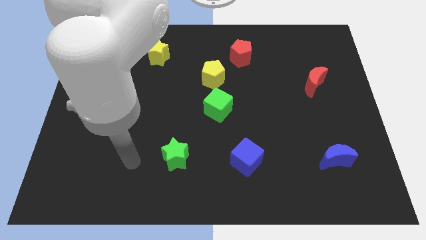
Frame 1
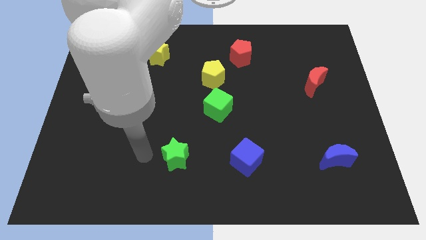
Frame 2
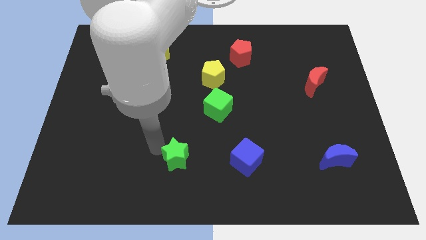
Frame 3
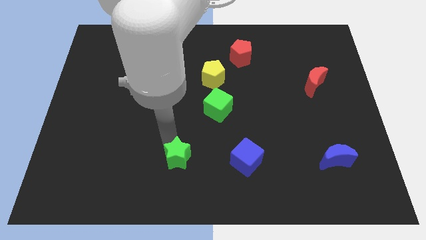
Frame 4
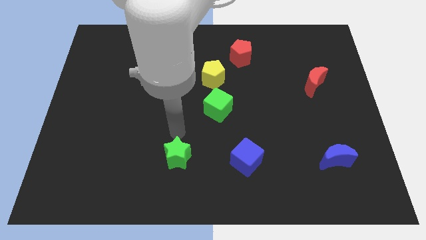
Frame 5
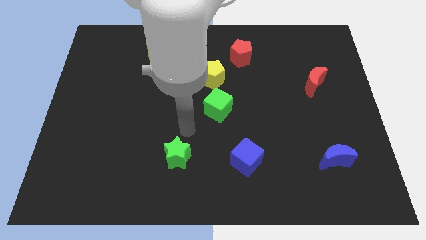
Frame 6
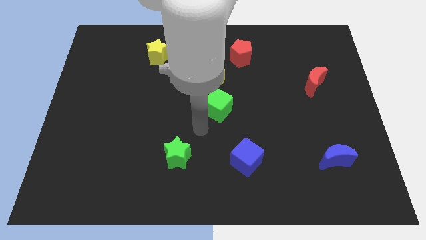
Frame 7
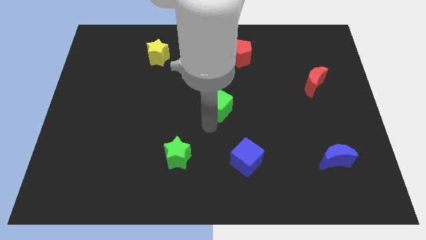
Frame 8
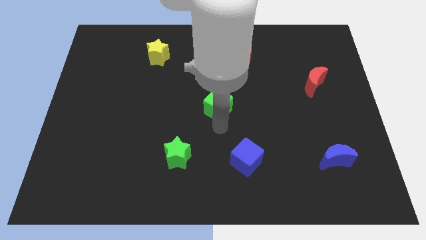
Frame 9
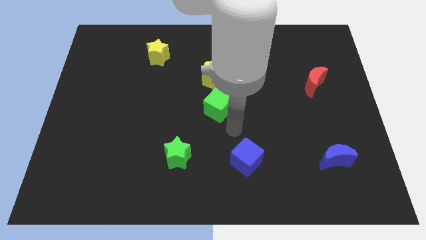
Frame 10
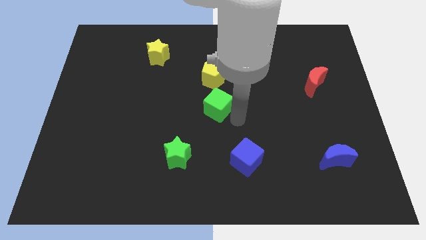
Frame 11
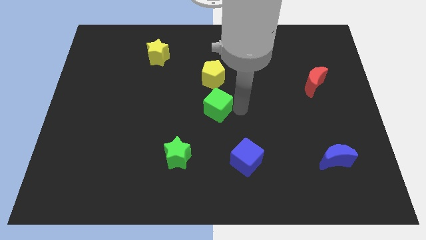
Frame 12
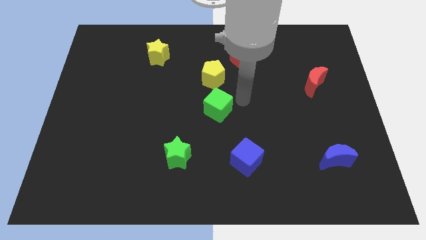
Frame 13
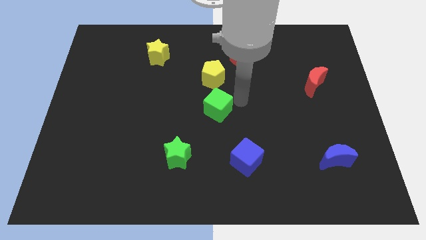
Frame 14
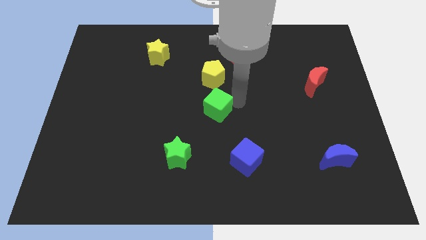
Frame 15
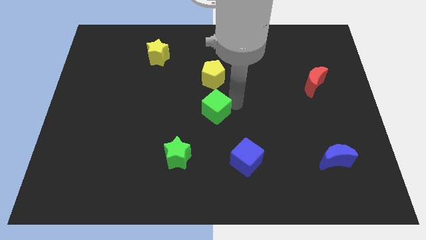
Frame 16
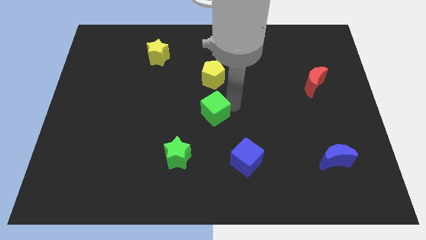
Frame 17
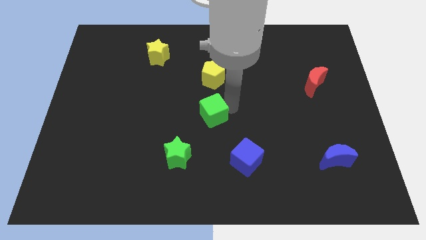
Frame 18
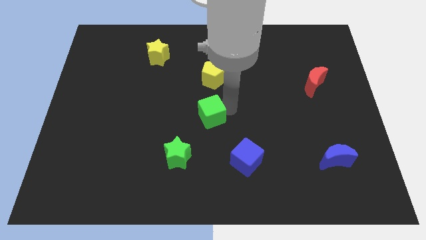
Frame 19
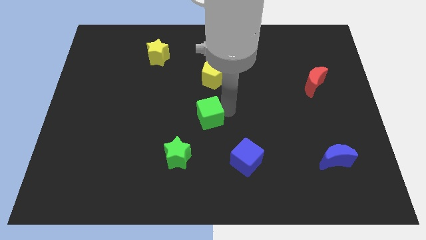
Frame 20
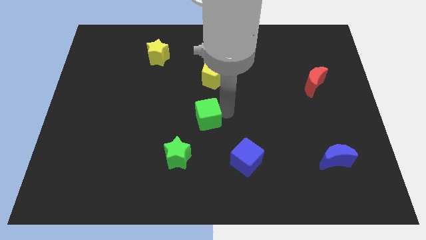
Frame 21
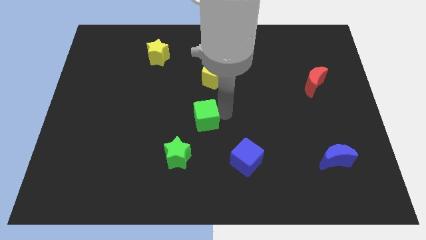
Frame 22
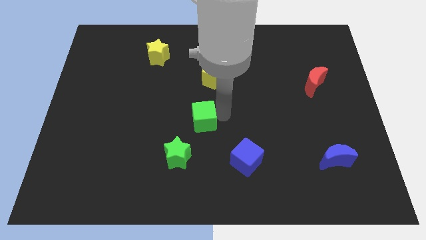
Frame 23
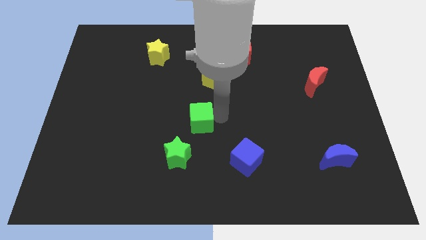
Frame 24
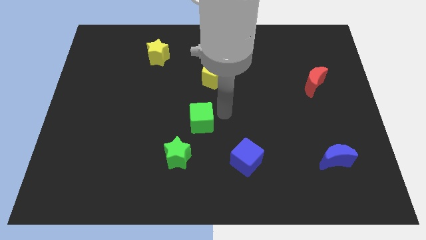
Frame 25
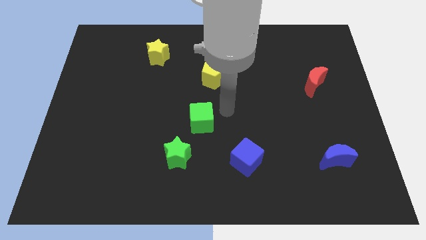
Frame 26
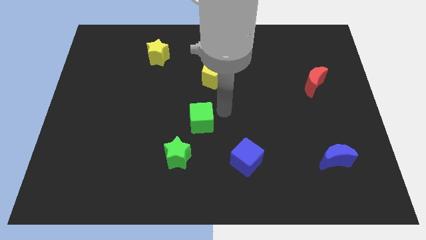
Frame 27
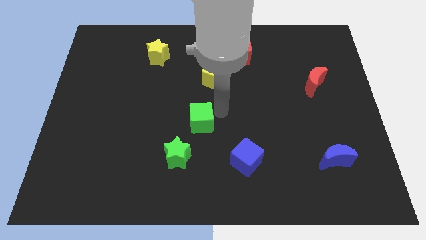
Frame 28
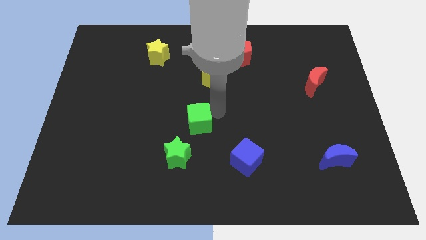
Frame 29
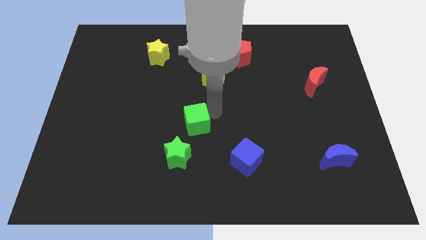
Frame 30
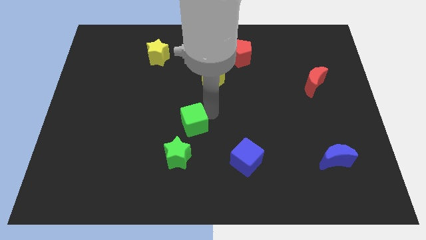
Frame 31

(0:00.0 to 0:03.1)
slightly move the green cube down and left diagonally

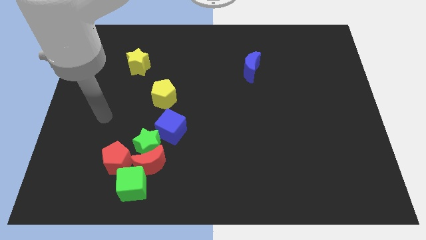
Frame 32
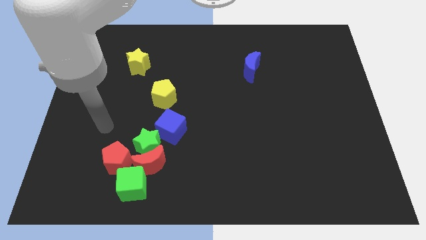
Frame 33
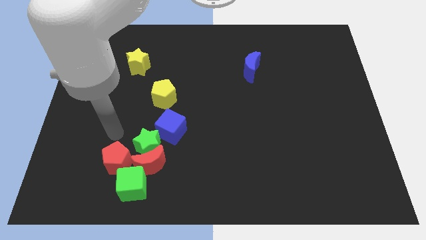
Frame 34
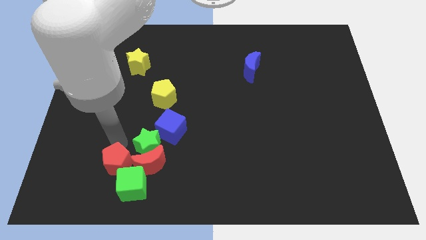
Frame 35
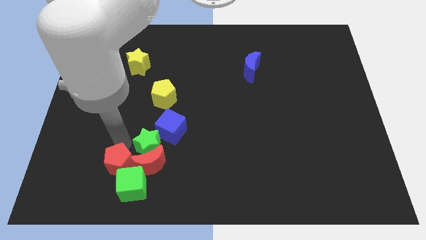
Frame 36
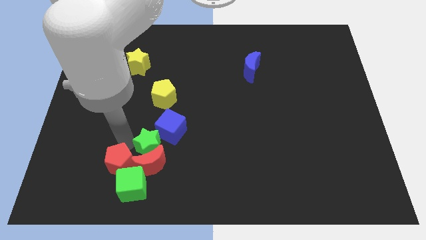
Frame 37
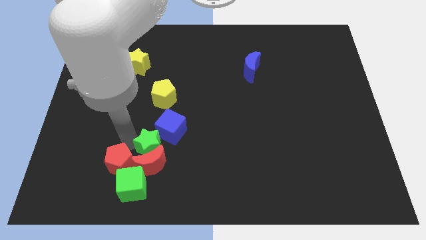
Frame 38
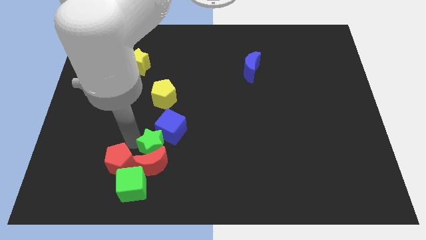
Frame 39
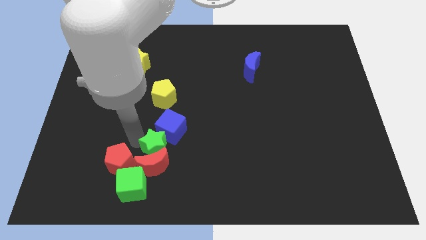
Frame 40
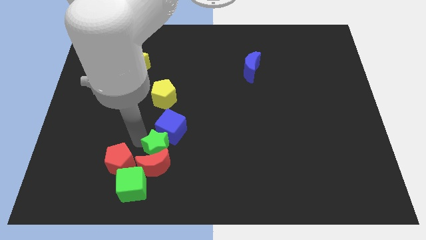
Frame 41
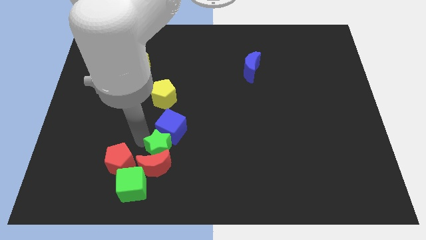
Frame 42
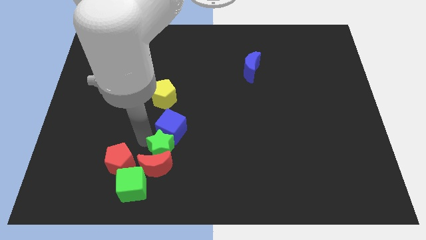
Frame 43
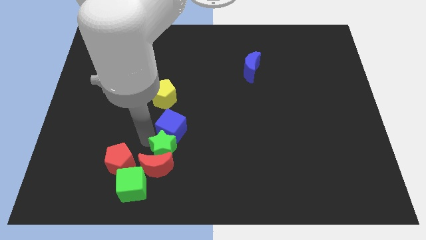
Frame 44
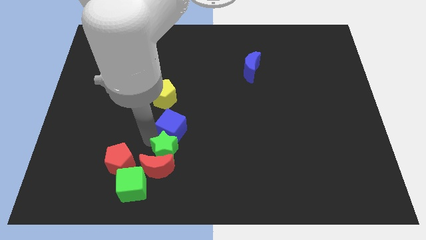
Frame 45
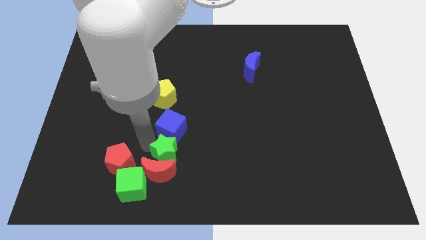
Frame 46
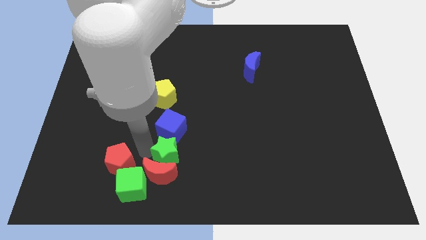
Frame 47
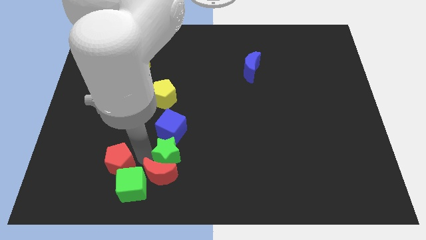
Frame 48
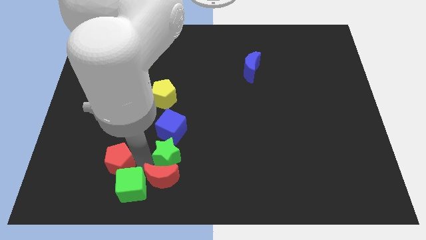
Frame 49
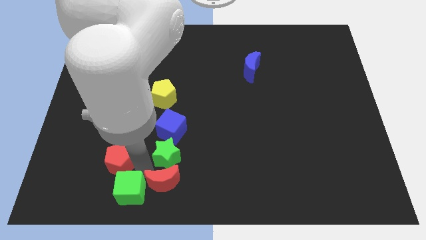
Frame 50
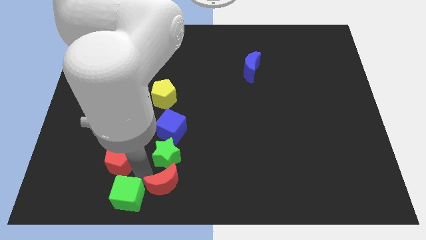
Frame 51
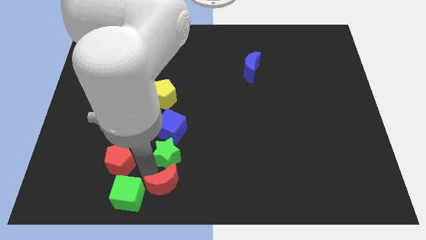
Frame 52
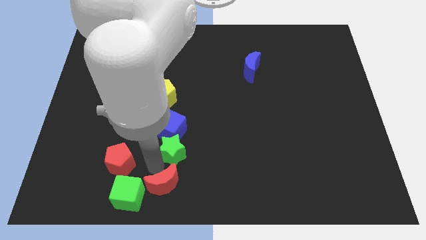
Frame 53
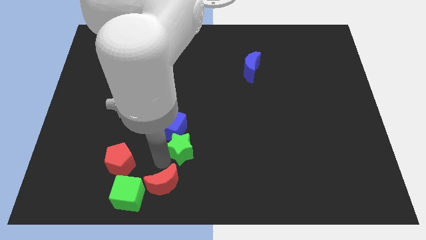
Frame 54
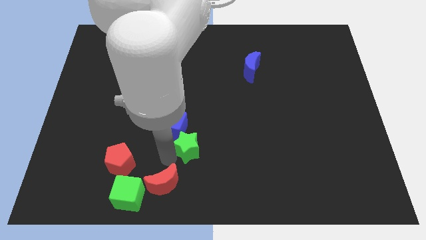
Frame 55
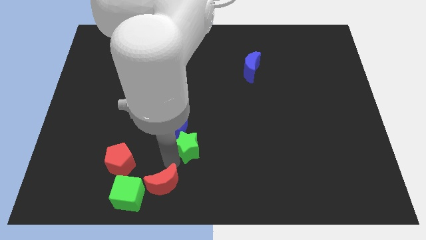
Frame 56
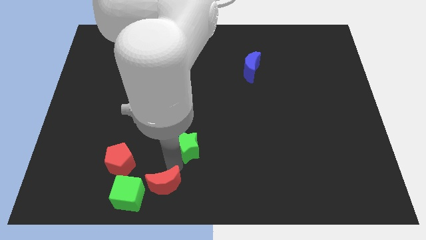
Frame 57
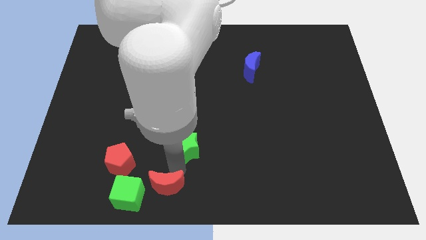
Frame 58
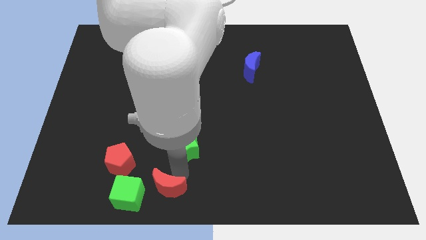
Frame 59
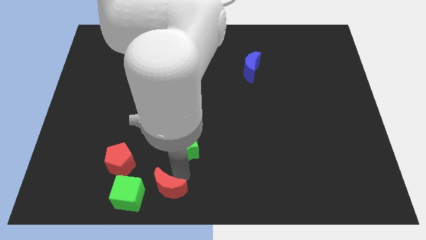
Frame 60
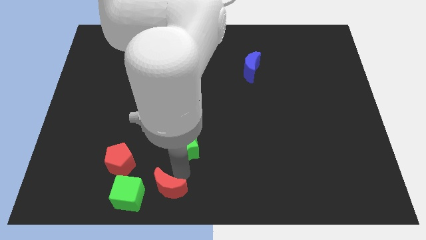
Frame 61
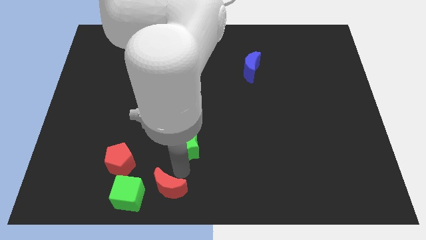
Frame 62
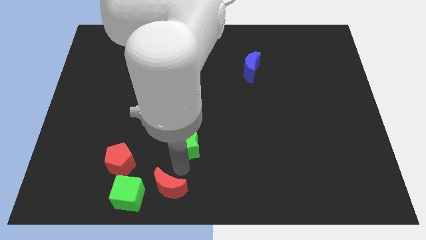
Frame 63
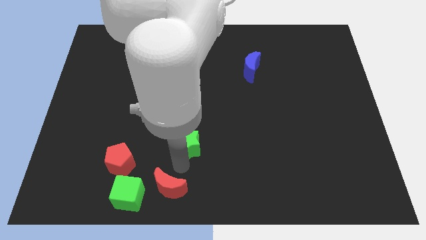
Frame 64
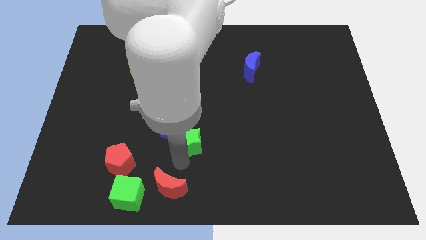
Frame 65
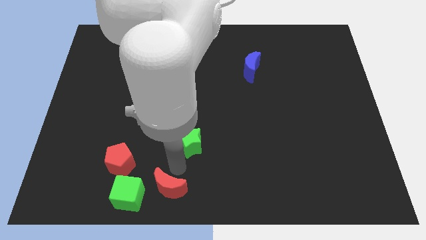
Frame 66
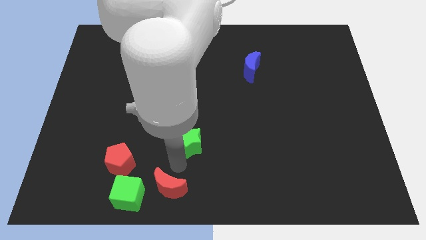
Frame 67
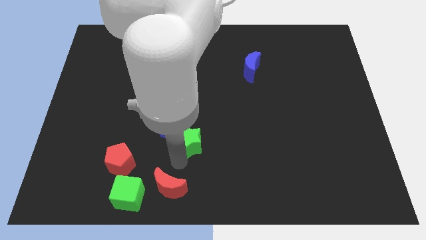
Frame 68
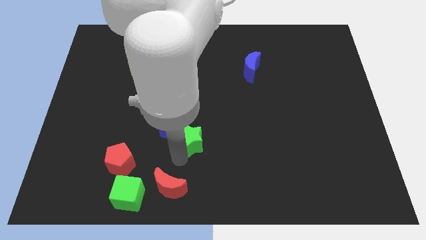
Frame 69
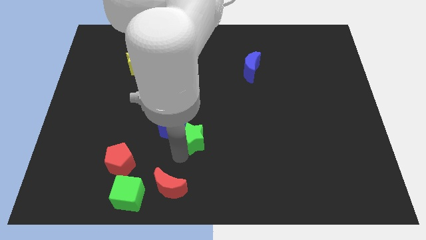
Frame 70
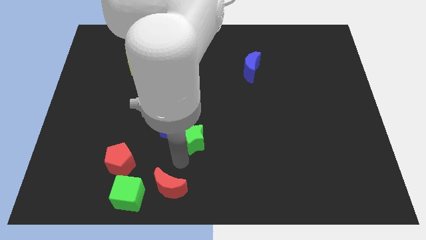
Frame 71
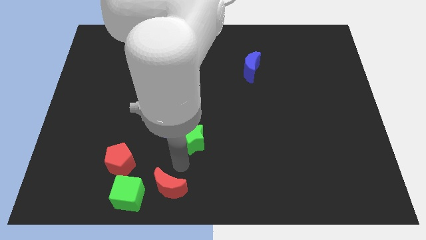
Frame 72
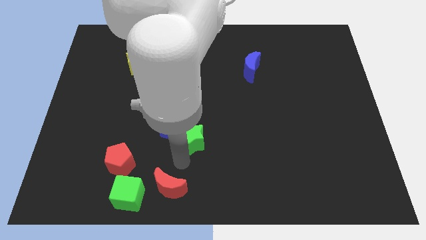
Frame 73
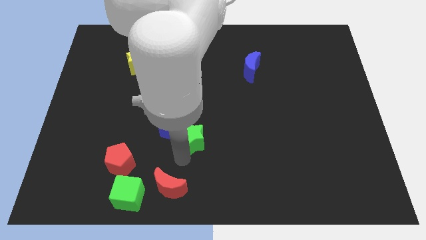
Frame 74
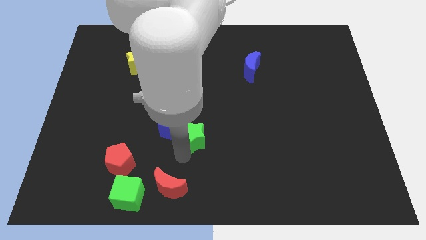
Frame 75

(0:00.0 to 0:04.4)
push the green star slightly up and right
